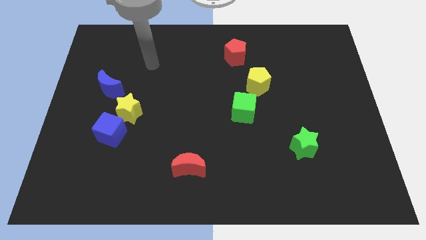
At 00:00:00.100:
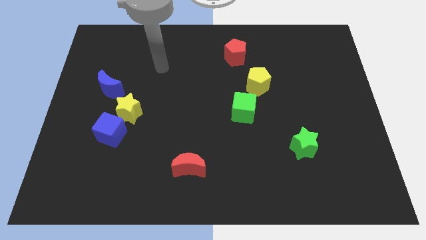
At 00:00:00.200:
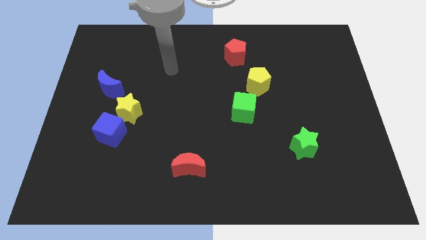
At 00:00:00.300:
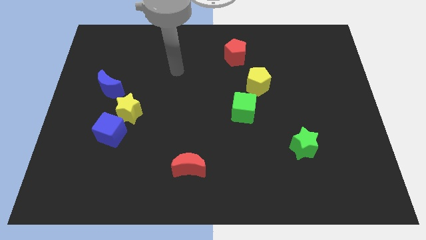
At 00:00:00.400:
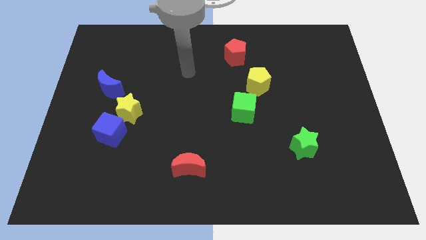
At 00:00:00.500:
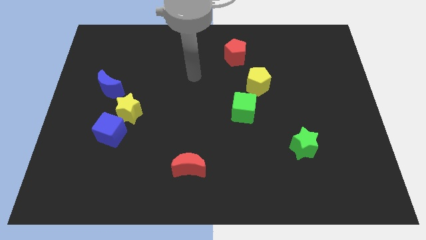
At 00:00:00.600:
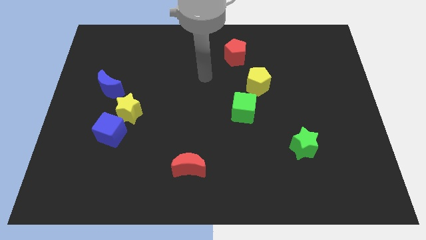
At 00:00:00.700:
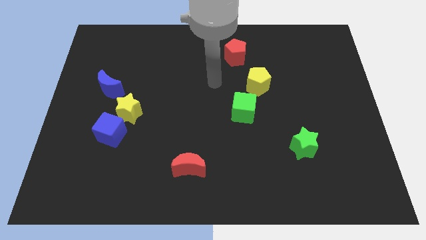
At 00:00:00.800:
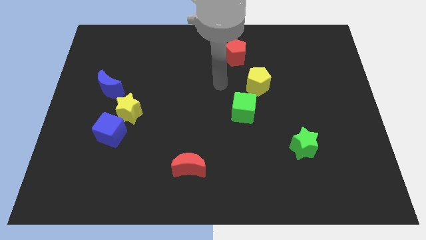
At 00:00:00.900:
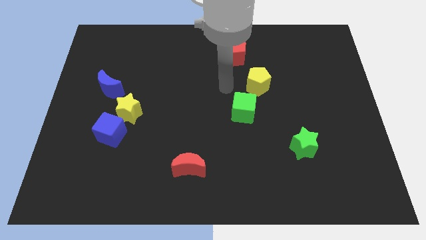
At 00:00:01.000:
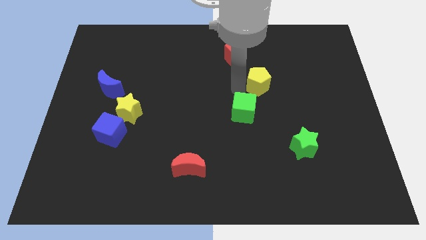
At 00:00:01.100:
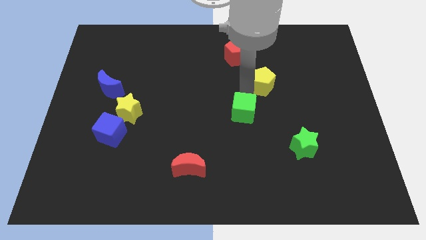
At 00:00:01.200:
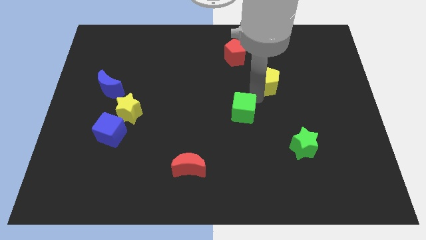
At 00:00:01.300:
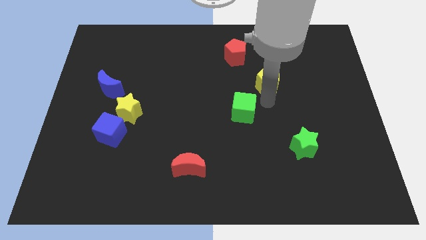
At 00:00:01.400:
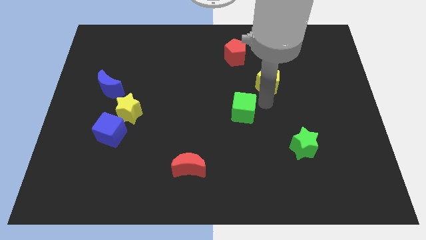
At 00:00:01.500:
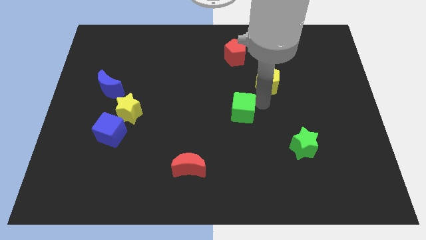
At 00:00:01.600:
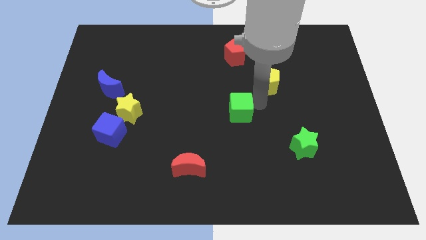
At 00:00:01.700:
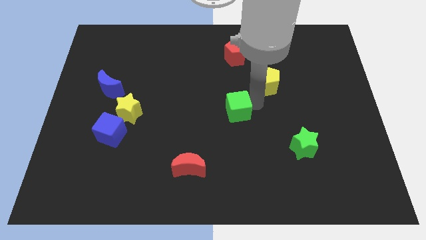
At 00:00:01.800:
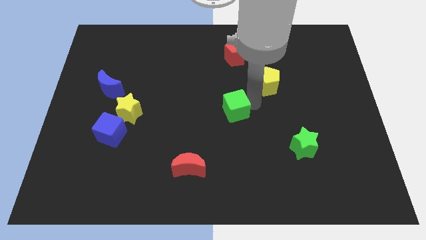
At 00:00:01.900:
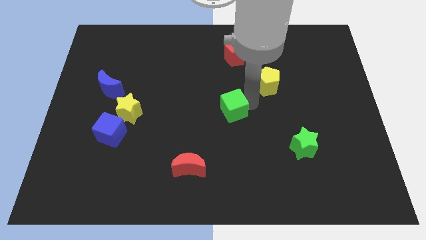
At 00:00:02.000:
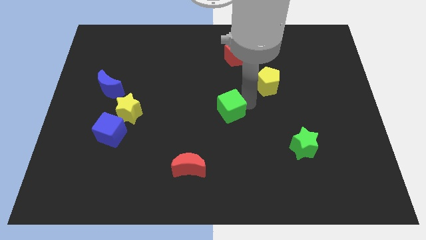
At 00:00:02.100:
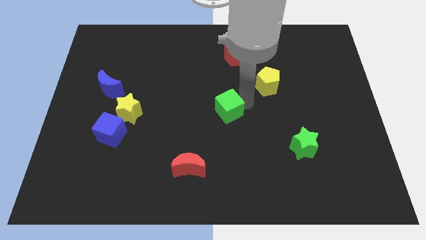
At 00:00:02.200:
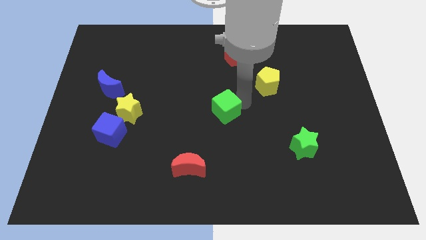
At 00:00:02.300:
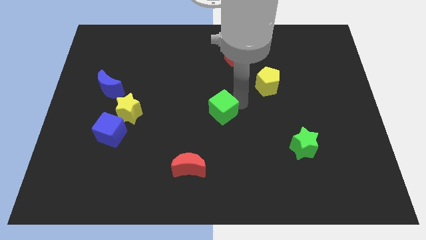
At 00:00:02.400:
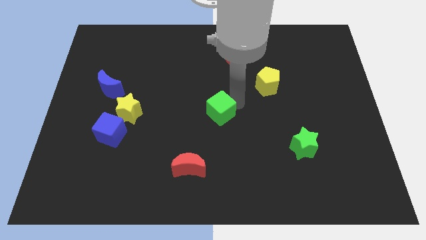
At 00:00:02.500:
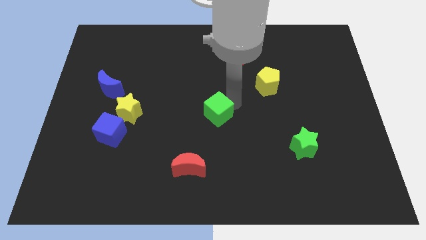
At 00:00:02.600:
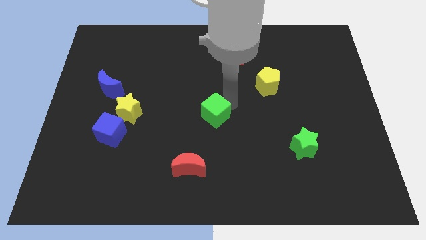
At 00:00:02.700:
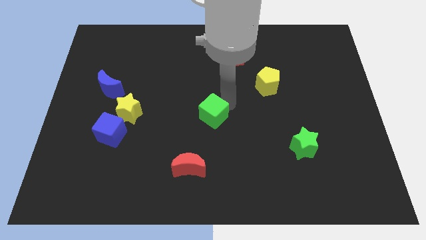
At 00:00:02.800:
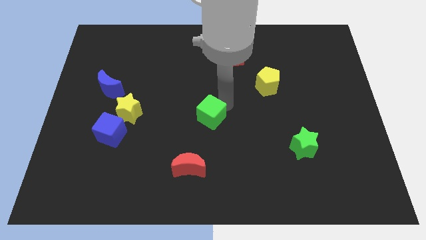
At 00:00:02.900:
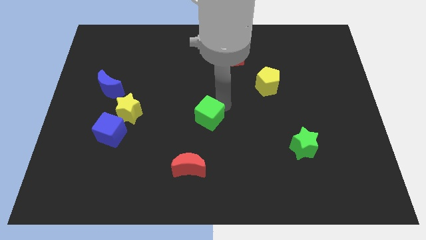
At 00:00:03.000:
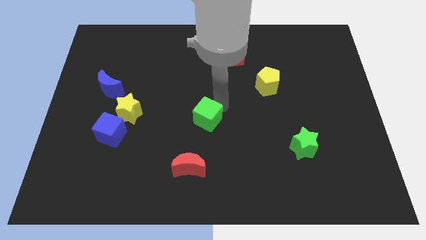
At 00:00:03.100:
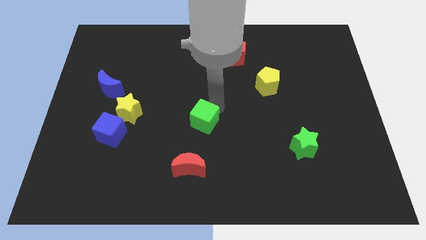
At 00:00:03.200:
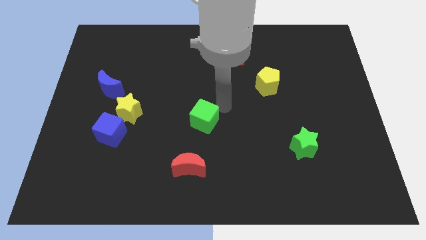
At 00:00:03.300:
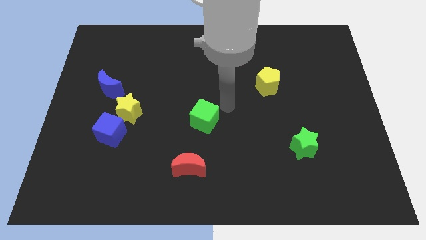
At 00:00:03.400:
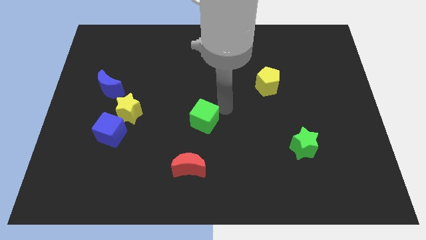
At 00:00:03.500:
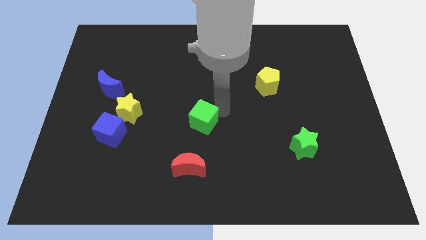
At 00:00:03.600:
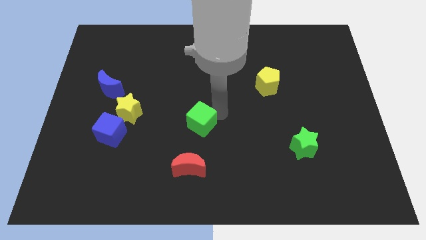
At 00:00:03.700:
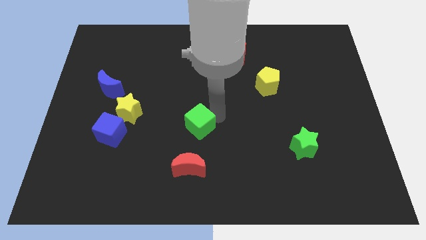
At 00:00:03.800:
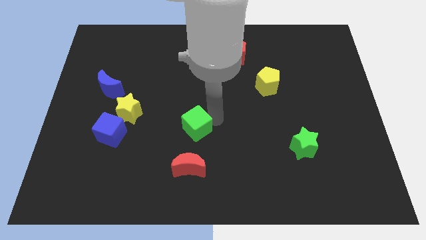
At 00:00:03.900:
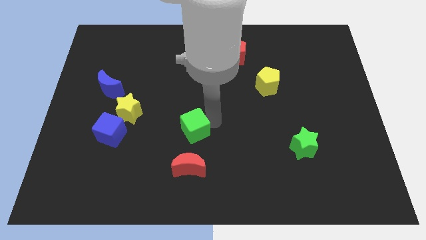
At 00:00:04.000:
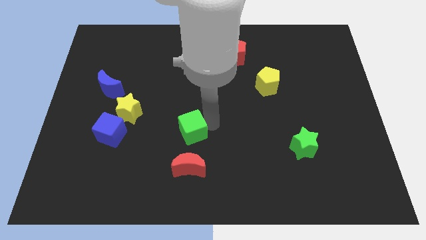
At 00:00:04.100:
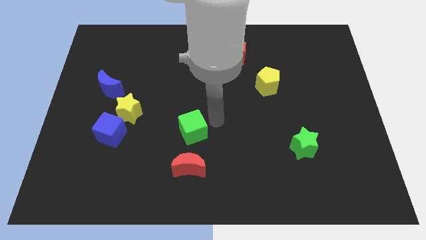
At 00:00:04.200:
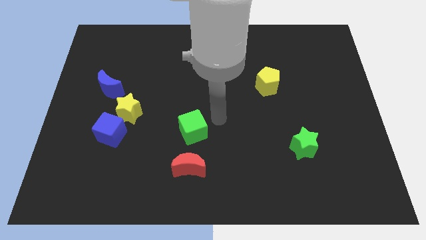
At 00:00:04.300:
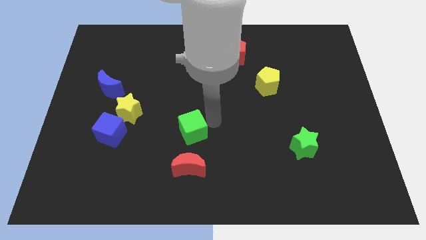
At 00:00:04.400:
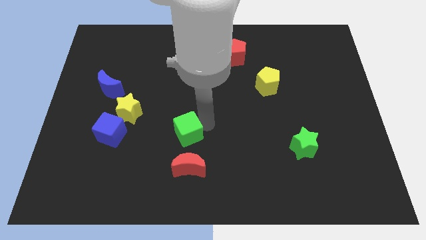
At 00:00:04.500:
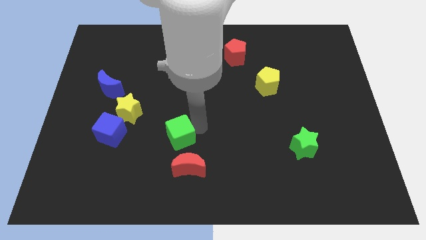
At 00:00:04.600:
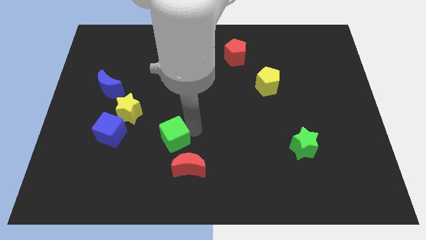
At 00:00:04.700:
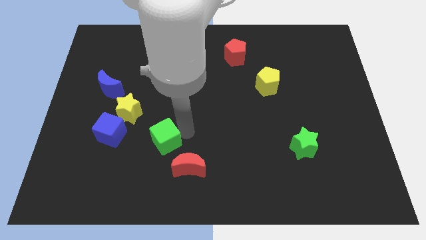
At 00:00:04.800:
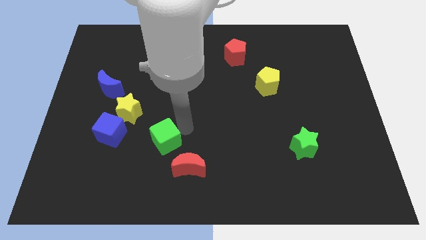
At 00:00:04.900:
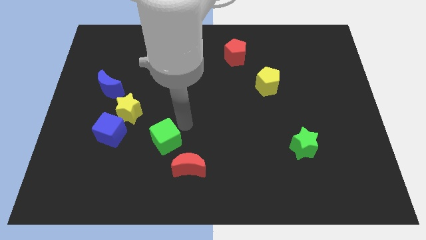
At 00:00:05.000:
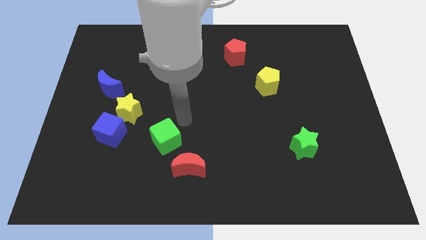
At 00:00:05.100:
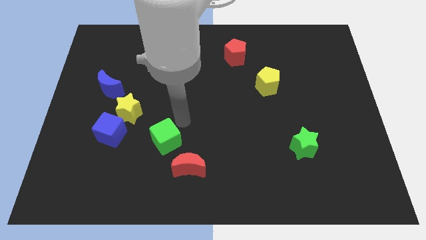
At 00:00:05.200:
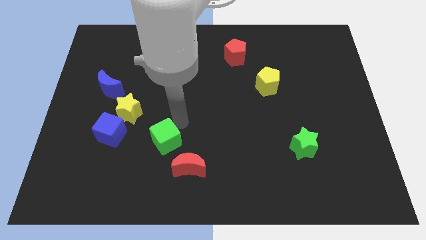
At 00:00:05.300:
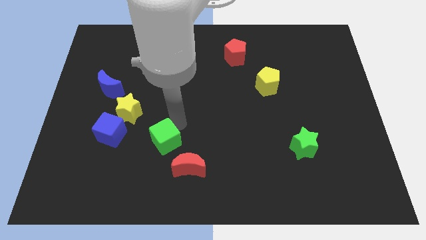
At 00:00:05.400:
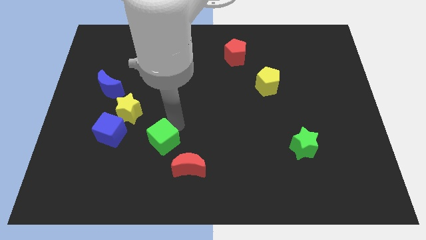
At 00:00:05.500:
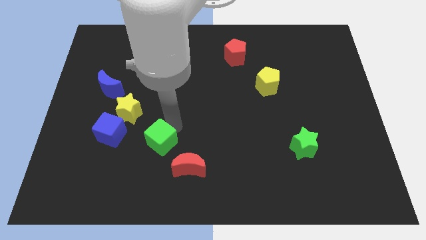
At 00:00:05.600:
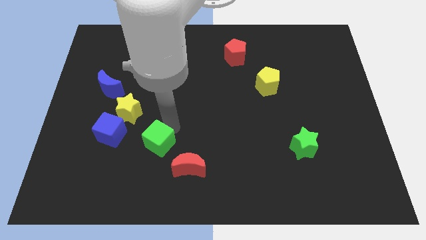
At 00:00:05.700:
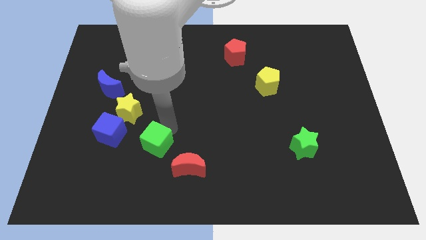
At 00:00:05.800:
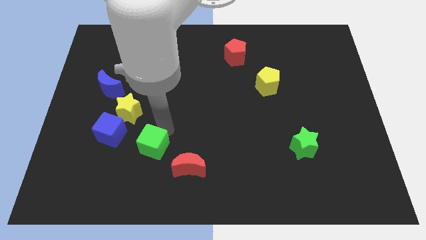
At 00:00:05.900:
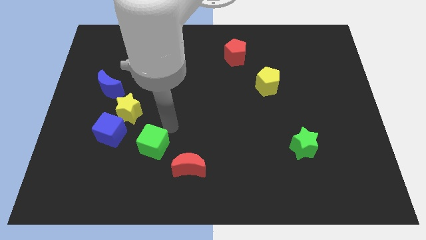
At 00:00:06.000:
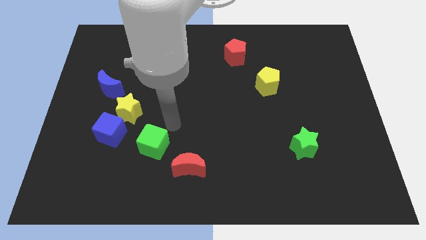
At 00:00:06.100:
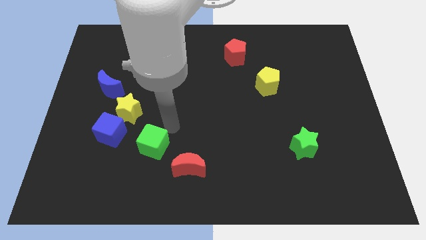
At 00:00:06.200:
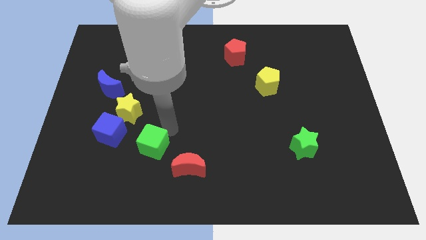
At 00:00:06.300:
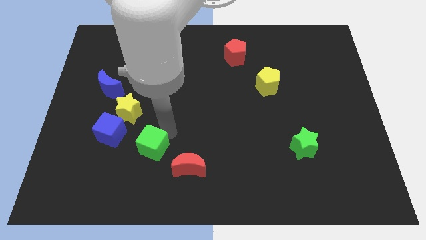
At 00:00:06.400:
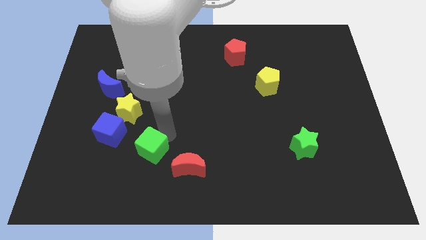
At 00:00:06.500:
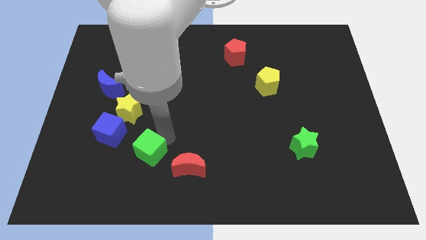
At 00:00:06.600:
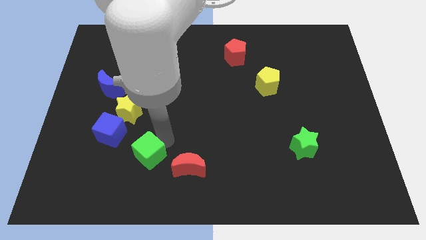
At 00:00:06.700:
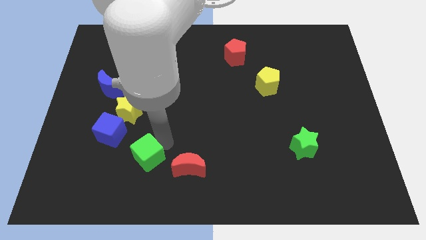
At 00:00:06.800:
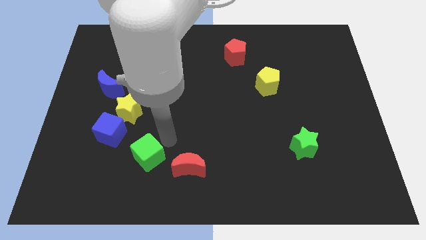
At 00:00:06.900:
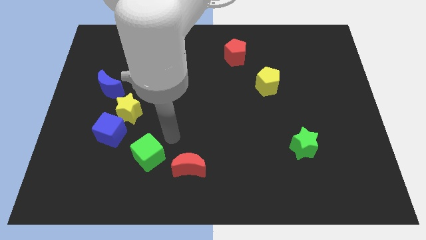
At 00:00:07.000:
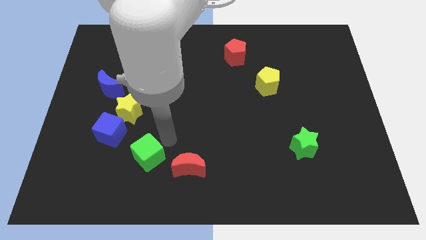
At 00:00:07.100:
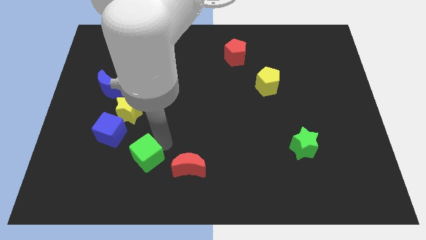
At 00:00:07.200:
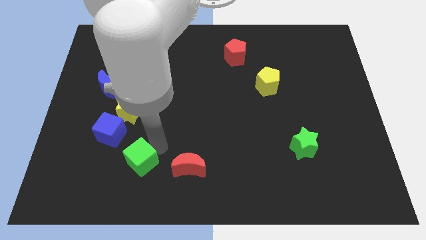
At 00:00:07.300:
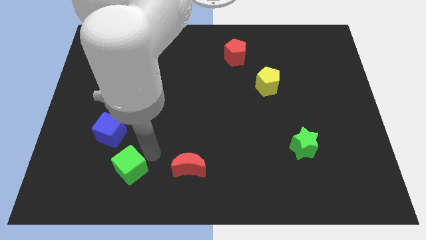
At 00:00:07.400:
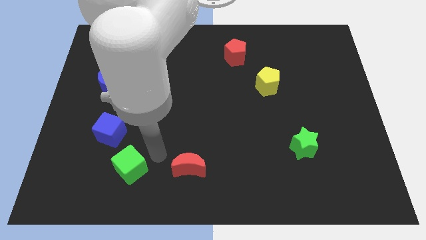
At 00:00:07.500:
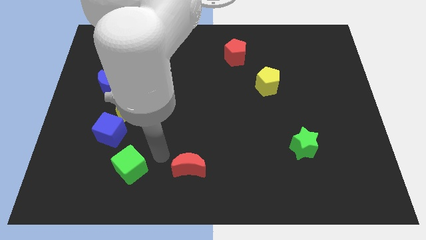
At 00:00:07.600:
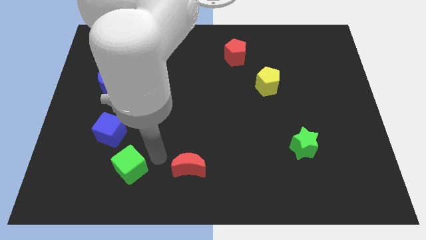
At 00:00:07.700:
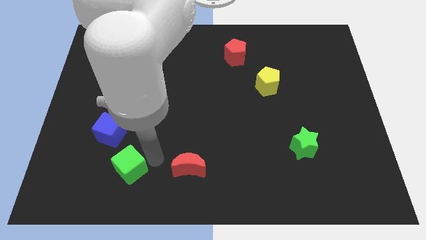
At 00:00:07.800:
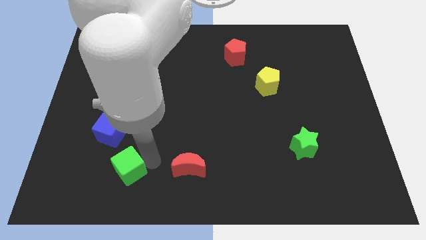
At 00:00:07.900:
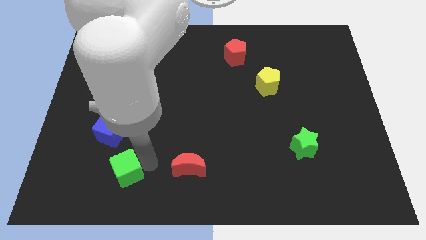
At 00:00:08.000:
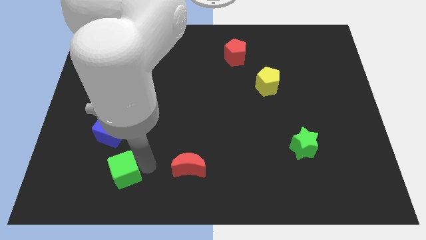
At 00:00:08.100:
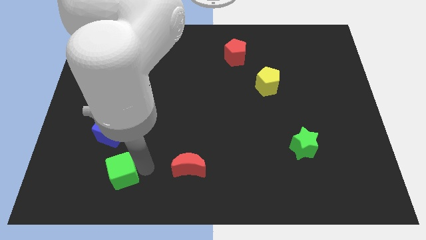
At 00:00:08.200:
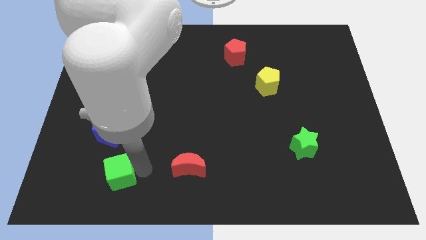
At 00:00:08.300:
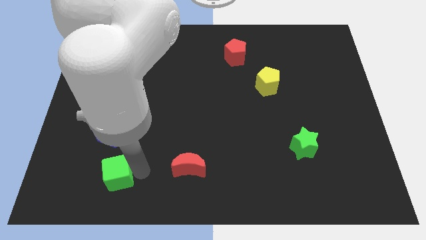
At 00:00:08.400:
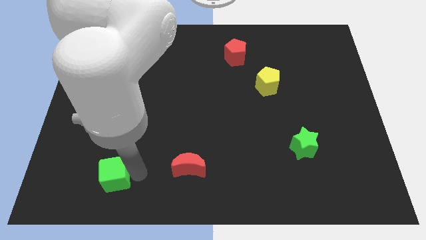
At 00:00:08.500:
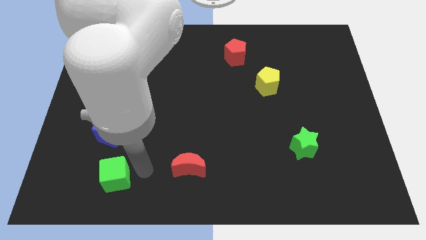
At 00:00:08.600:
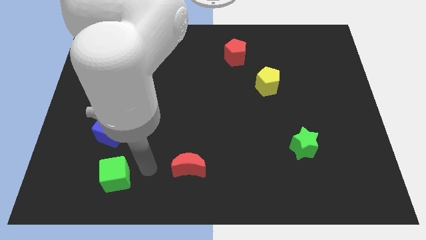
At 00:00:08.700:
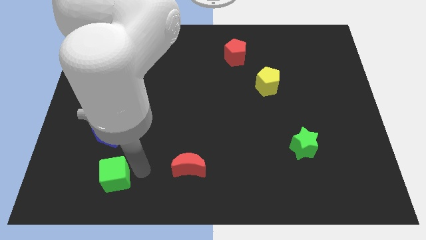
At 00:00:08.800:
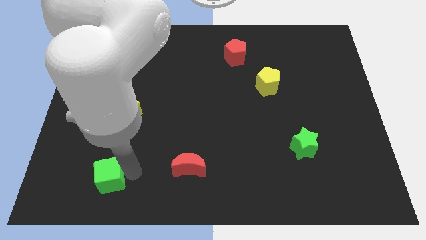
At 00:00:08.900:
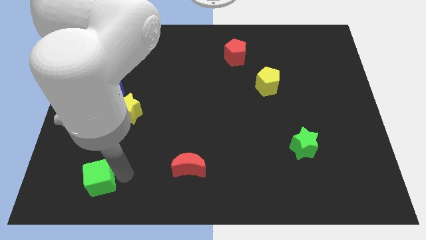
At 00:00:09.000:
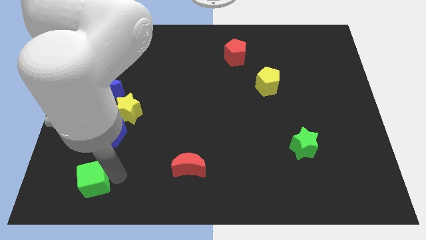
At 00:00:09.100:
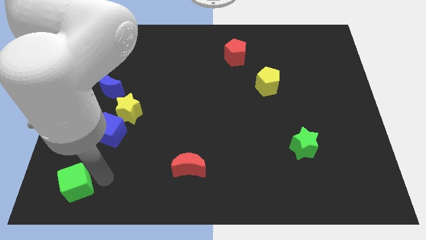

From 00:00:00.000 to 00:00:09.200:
slide the green cube to the lower left corner
